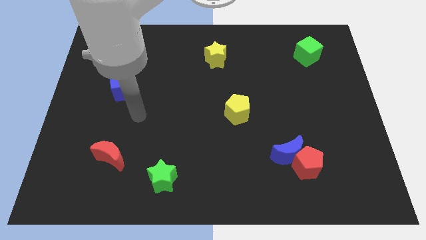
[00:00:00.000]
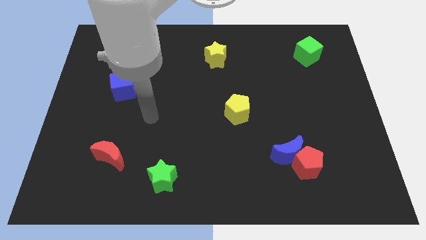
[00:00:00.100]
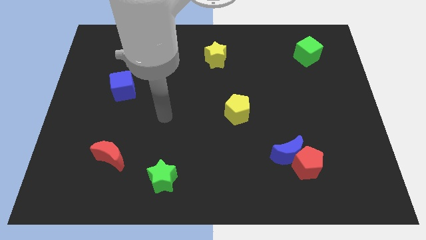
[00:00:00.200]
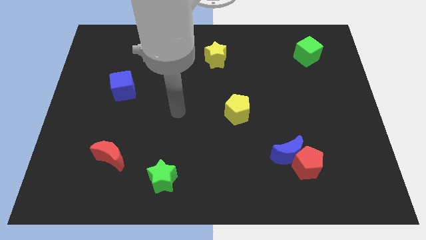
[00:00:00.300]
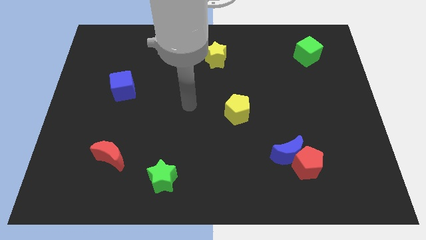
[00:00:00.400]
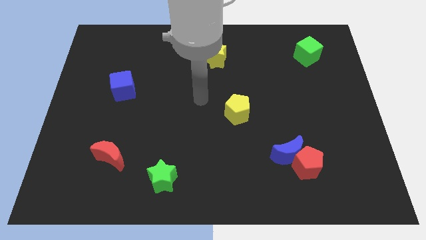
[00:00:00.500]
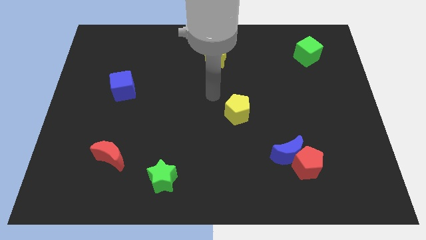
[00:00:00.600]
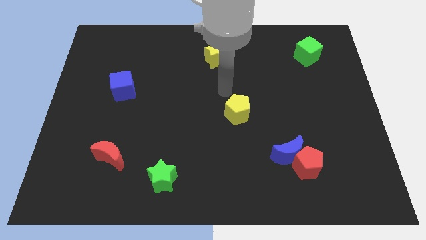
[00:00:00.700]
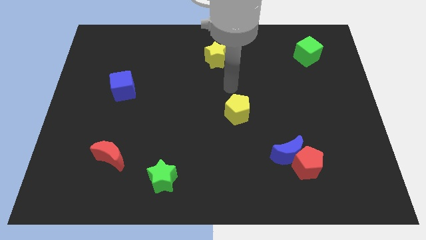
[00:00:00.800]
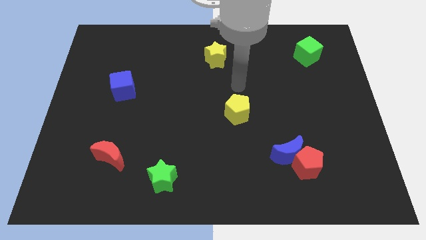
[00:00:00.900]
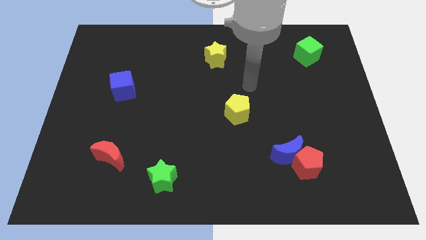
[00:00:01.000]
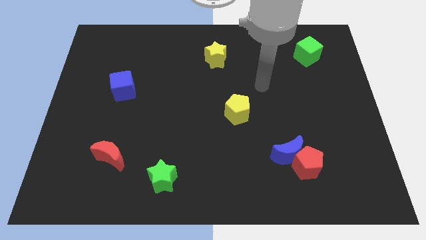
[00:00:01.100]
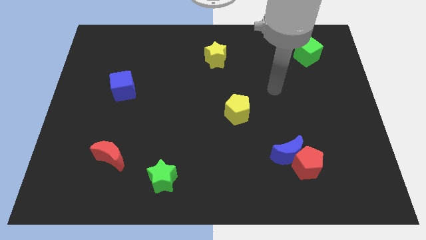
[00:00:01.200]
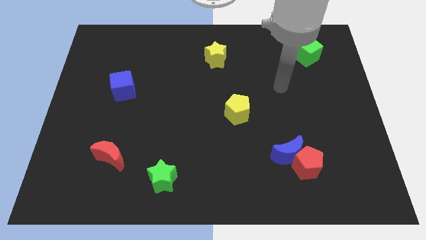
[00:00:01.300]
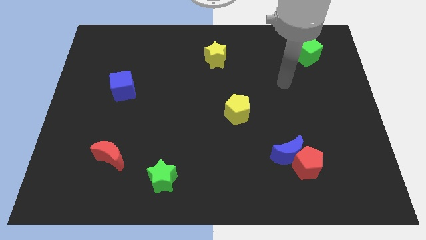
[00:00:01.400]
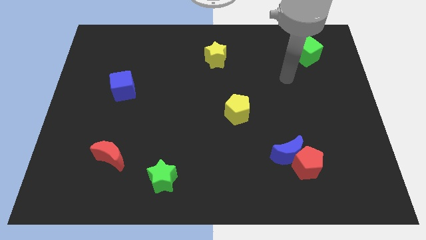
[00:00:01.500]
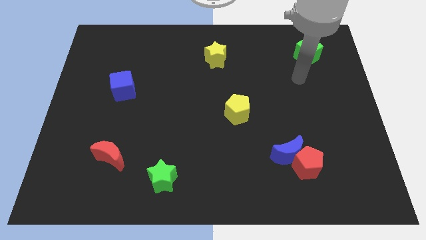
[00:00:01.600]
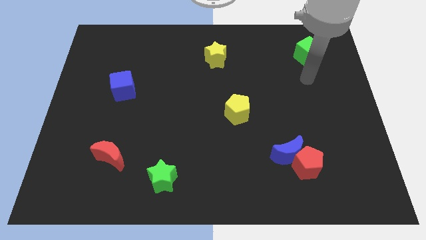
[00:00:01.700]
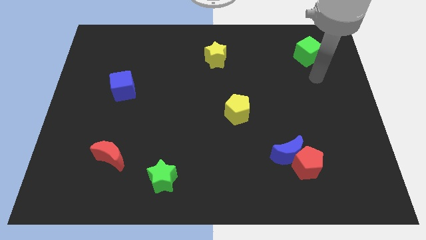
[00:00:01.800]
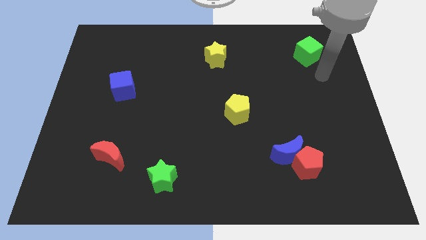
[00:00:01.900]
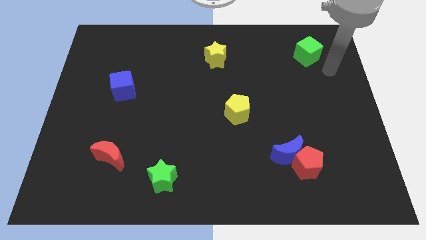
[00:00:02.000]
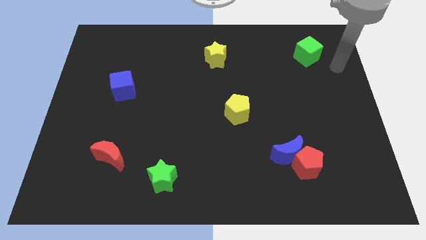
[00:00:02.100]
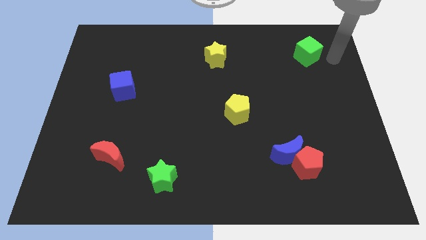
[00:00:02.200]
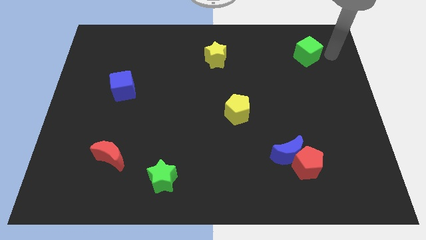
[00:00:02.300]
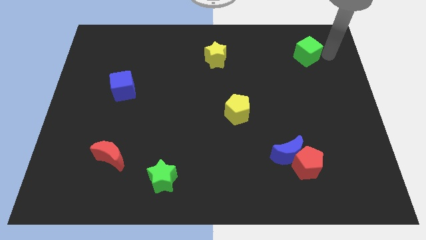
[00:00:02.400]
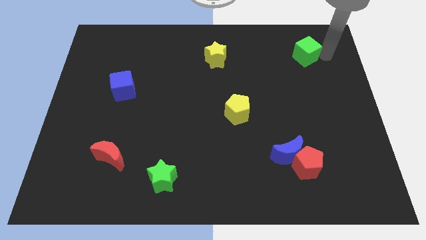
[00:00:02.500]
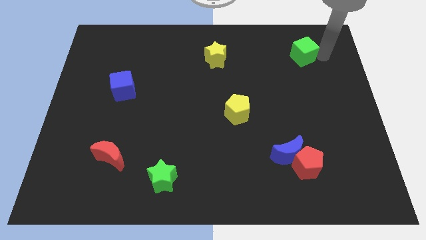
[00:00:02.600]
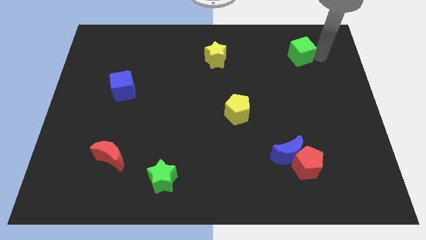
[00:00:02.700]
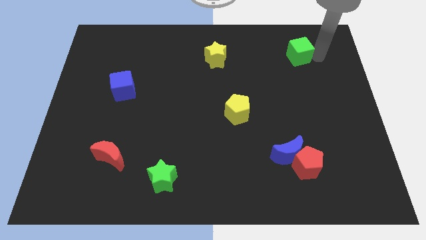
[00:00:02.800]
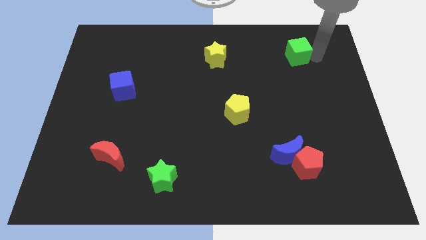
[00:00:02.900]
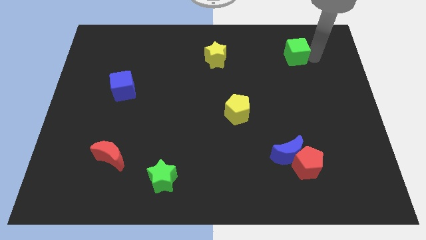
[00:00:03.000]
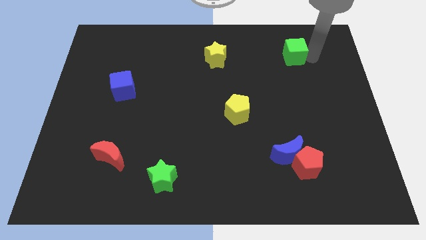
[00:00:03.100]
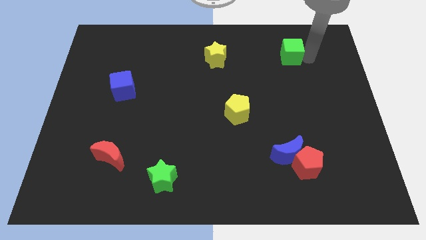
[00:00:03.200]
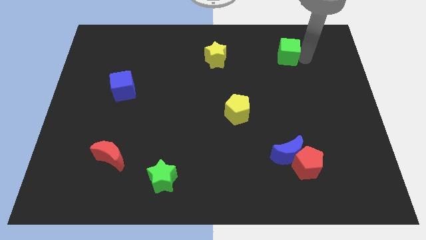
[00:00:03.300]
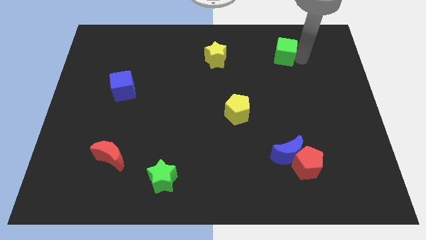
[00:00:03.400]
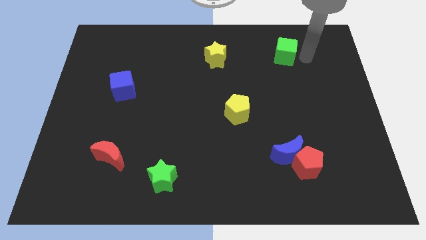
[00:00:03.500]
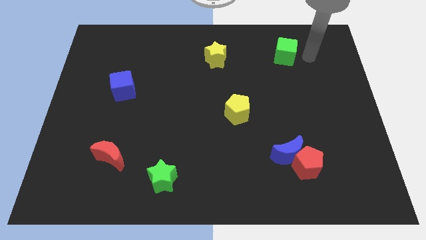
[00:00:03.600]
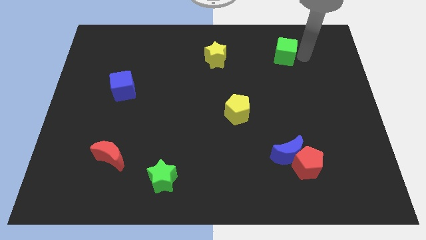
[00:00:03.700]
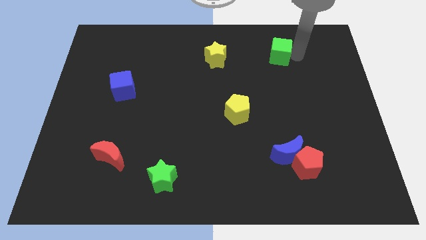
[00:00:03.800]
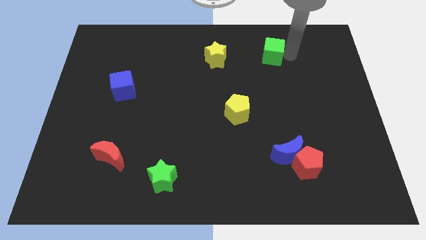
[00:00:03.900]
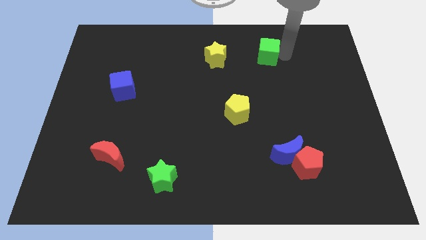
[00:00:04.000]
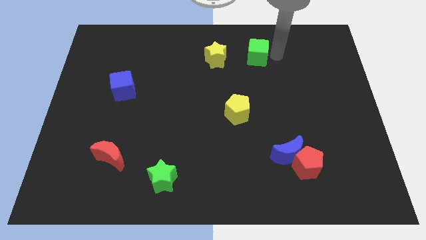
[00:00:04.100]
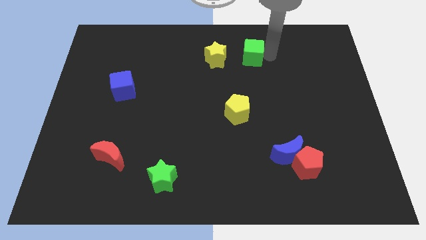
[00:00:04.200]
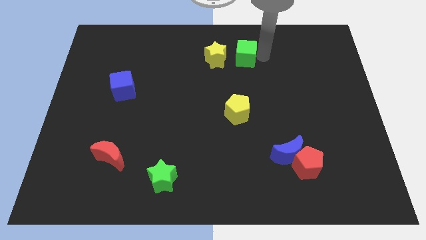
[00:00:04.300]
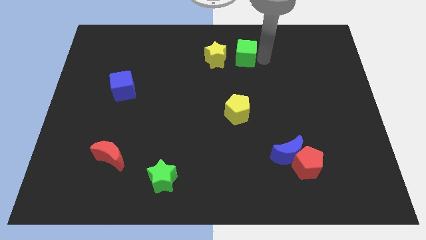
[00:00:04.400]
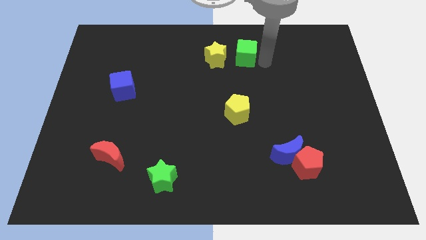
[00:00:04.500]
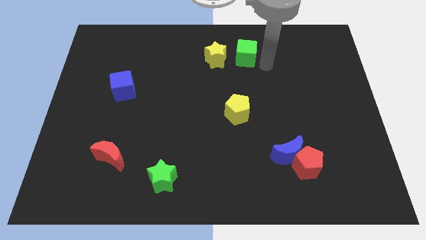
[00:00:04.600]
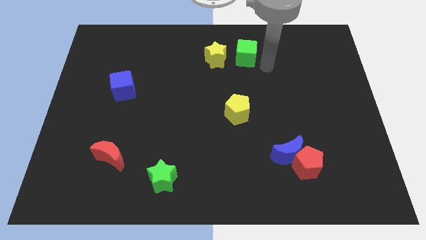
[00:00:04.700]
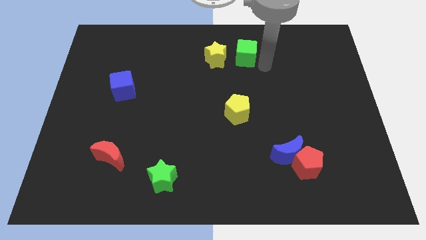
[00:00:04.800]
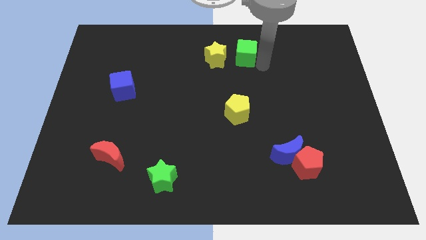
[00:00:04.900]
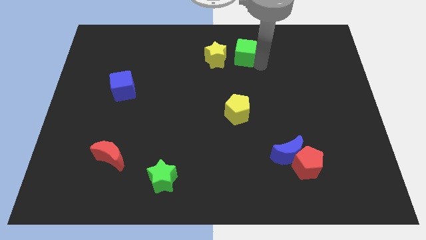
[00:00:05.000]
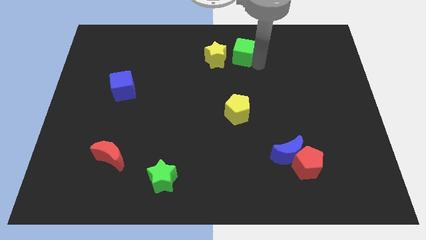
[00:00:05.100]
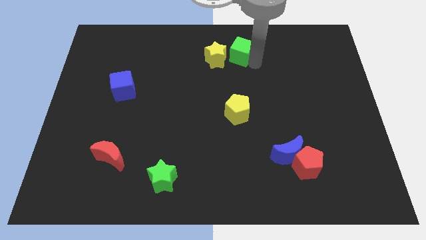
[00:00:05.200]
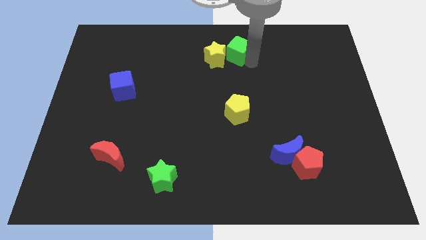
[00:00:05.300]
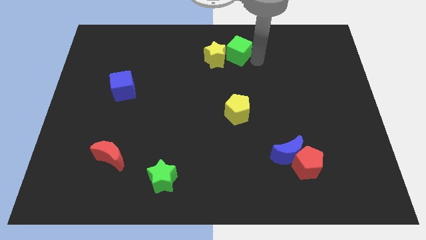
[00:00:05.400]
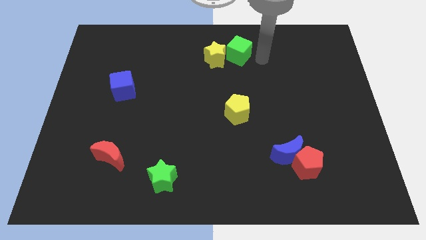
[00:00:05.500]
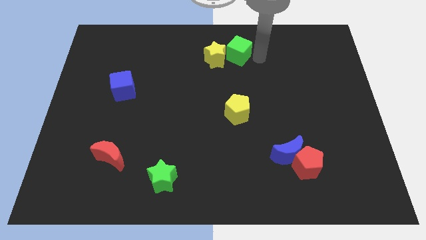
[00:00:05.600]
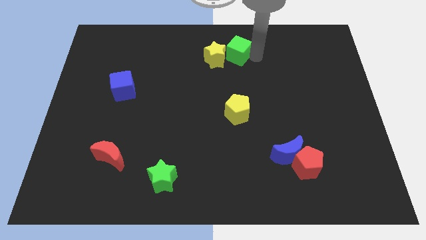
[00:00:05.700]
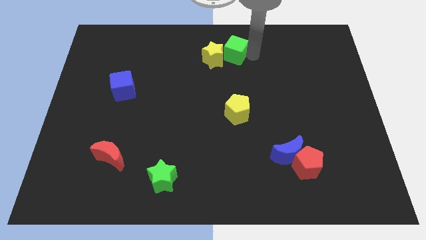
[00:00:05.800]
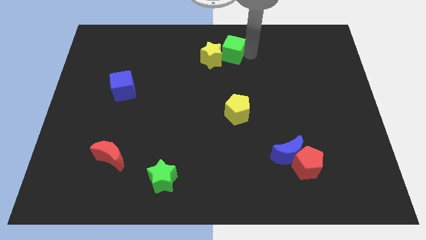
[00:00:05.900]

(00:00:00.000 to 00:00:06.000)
push the green cube to the left

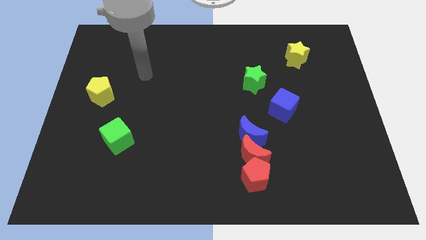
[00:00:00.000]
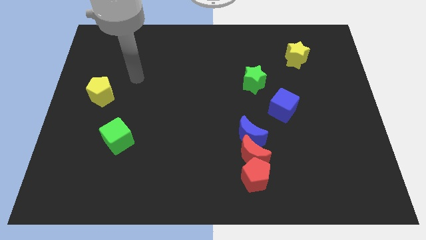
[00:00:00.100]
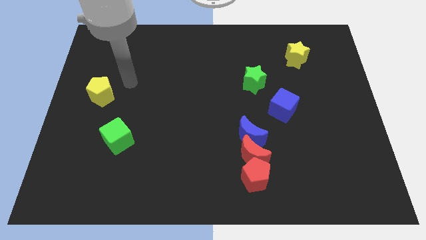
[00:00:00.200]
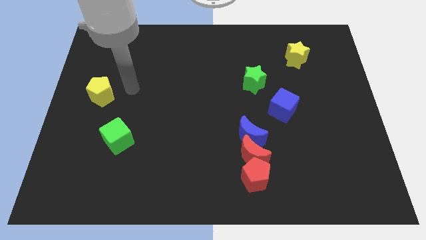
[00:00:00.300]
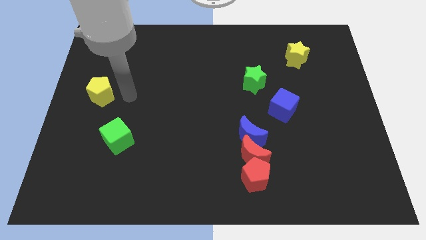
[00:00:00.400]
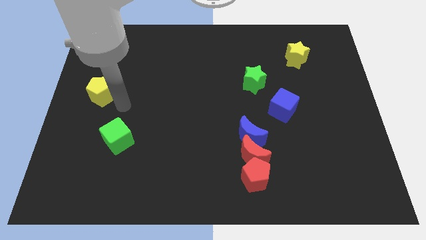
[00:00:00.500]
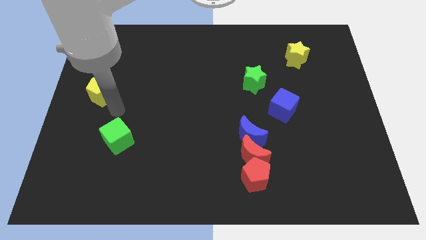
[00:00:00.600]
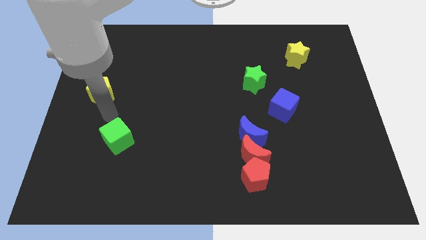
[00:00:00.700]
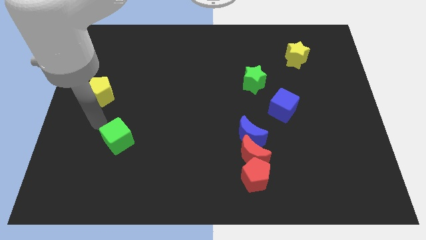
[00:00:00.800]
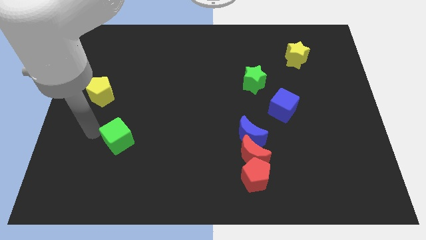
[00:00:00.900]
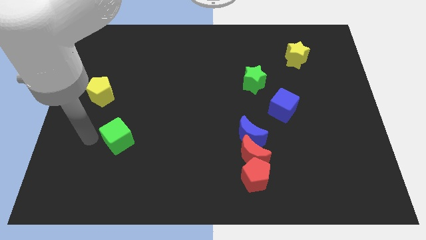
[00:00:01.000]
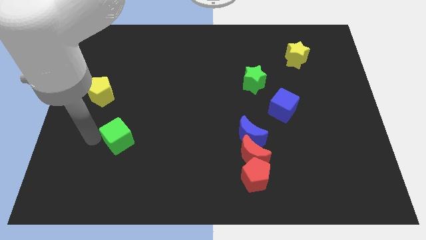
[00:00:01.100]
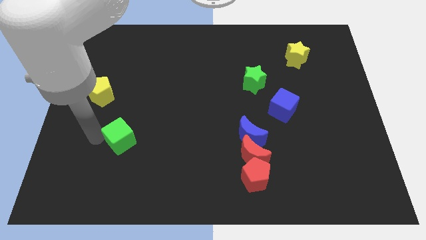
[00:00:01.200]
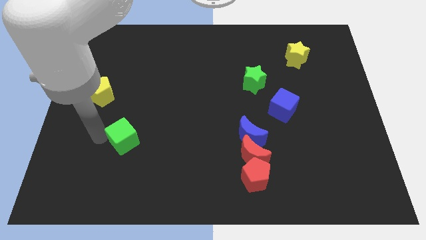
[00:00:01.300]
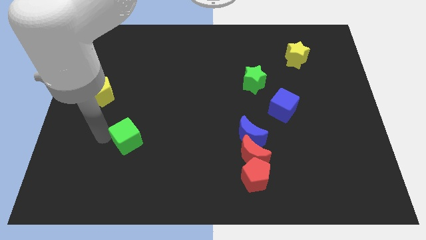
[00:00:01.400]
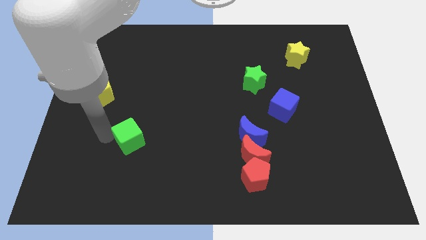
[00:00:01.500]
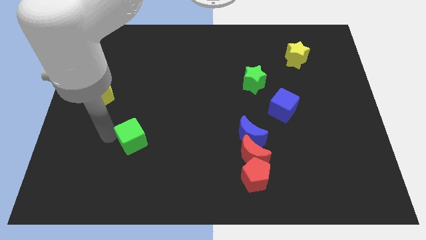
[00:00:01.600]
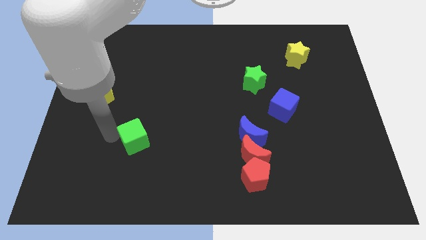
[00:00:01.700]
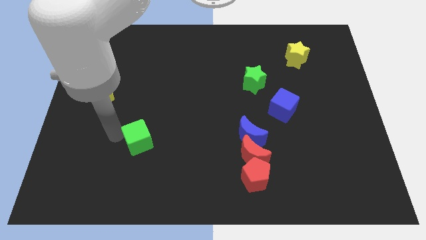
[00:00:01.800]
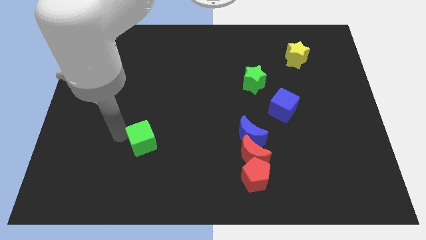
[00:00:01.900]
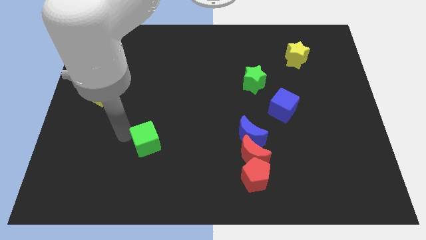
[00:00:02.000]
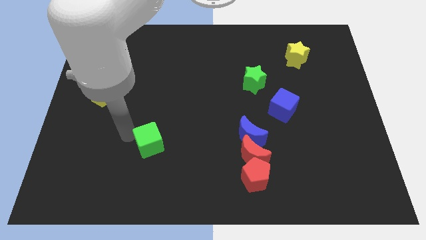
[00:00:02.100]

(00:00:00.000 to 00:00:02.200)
slightly push the green cube right

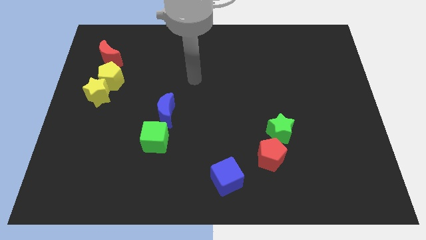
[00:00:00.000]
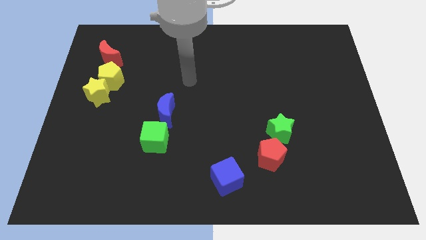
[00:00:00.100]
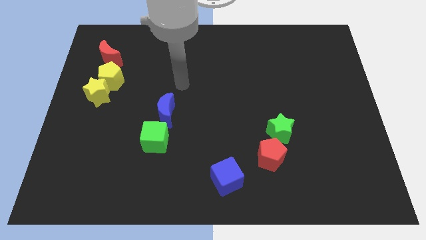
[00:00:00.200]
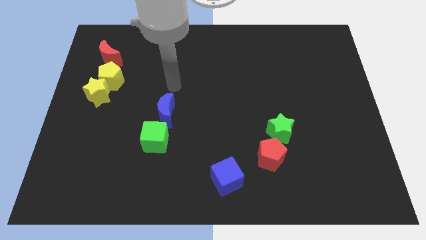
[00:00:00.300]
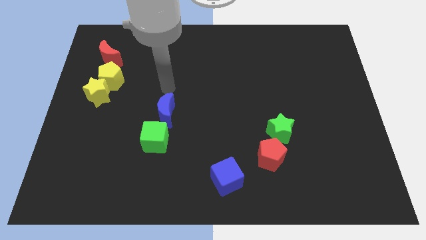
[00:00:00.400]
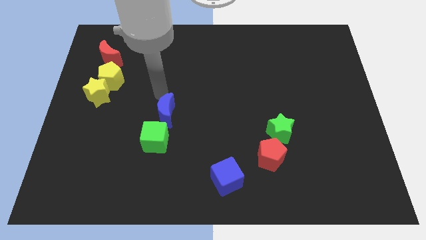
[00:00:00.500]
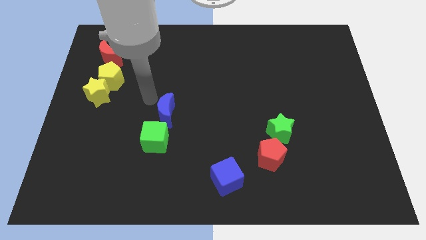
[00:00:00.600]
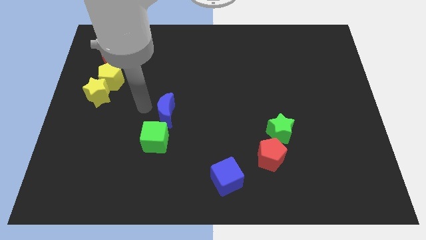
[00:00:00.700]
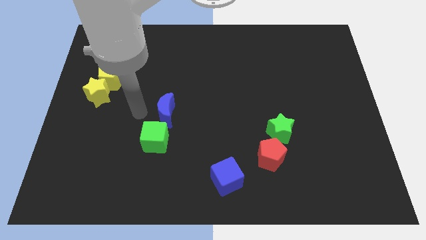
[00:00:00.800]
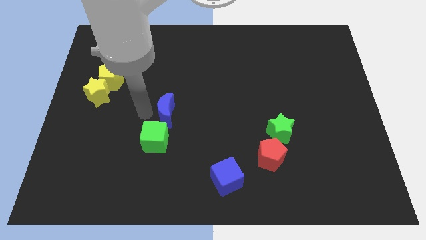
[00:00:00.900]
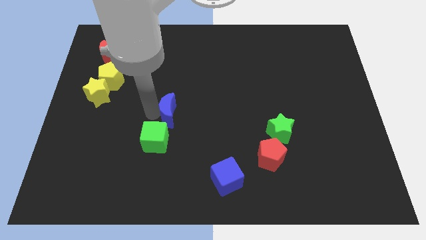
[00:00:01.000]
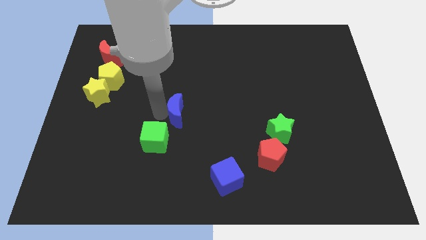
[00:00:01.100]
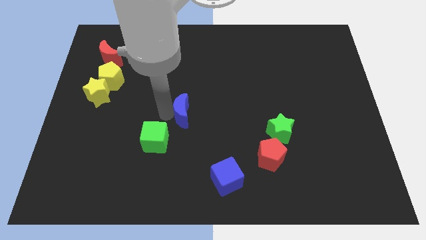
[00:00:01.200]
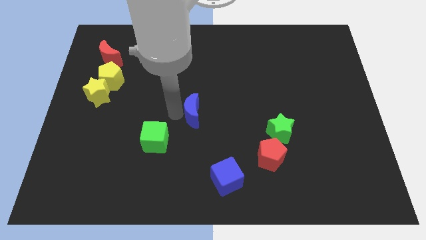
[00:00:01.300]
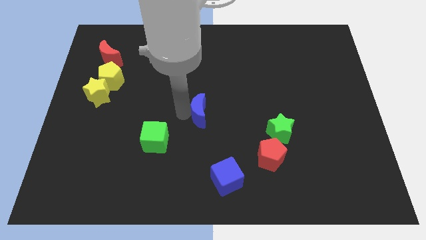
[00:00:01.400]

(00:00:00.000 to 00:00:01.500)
slightly slide the blue moon to the right
